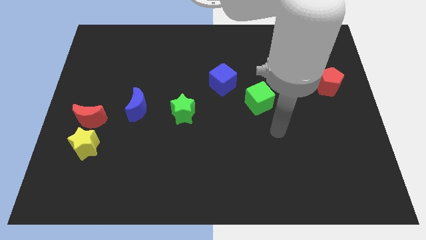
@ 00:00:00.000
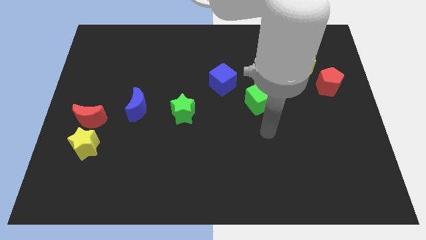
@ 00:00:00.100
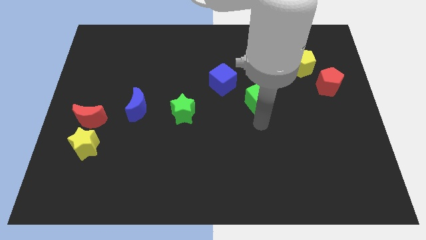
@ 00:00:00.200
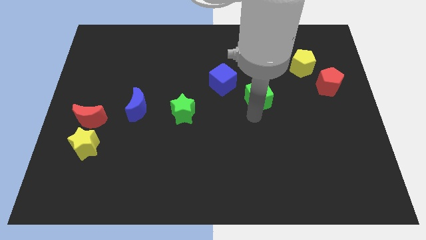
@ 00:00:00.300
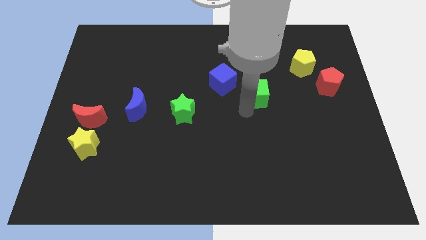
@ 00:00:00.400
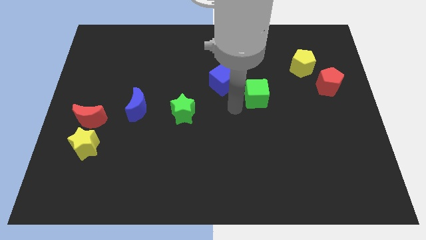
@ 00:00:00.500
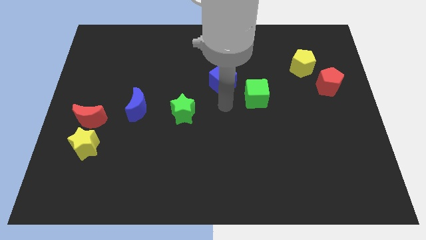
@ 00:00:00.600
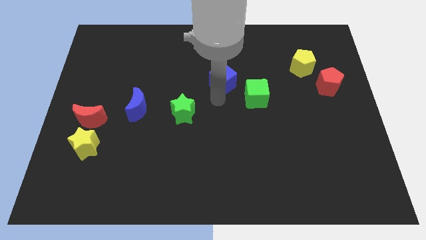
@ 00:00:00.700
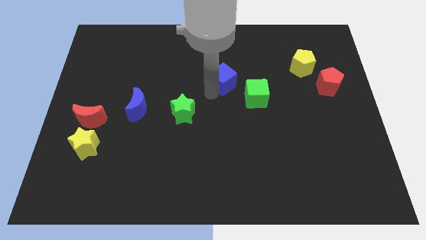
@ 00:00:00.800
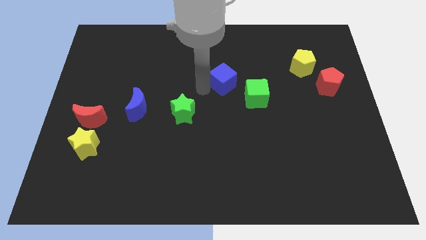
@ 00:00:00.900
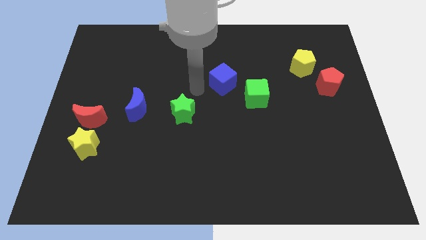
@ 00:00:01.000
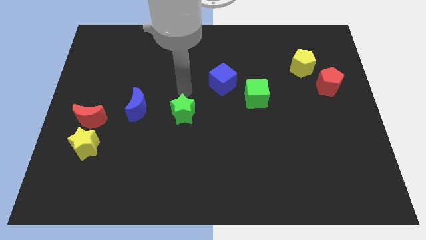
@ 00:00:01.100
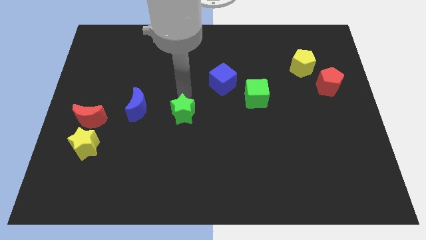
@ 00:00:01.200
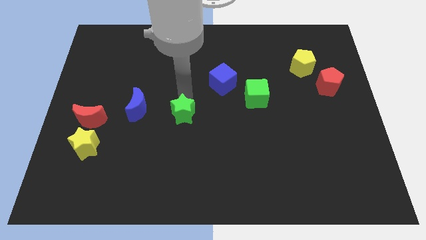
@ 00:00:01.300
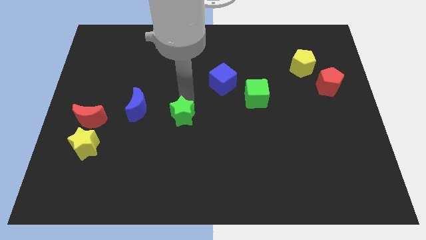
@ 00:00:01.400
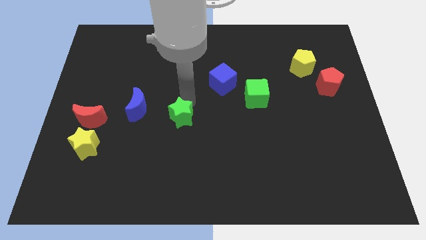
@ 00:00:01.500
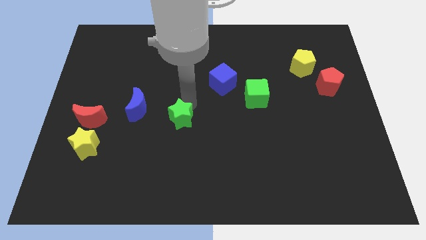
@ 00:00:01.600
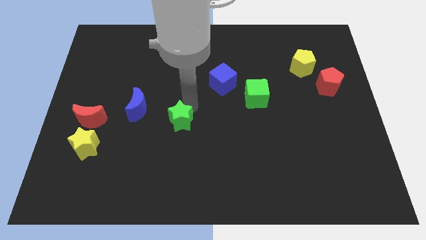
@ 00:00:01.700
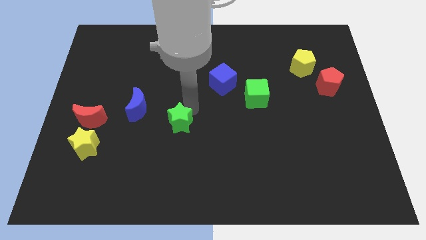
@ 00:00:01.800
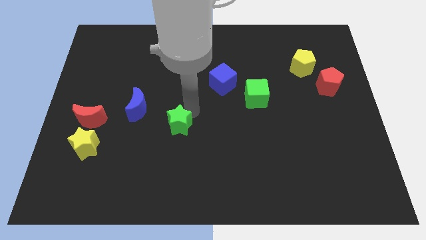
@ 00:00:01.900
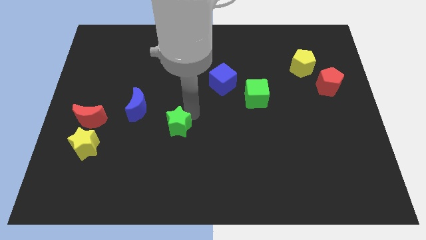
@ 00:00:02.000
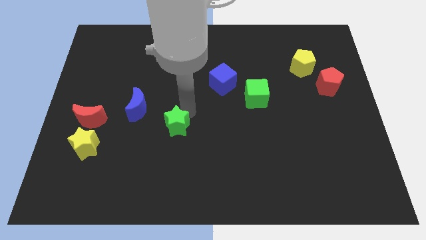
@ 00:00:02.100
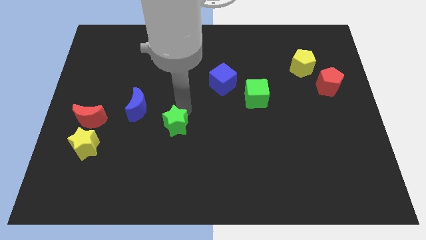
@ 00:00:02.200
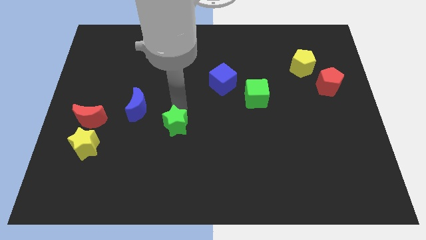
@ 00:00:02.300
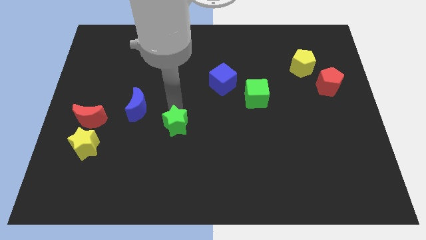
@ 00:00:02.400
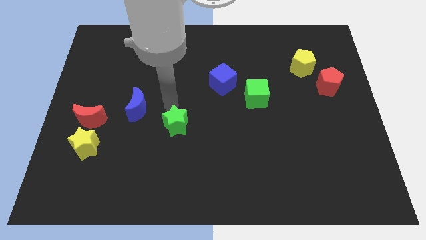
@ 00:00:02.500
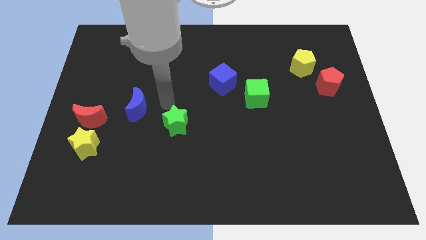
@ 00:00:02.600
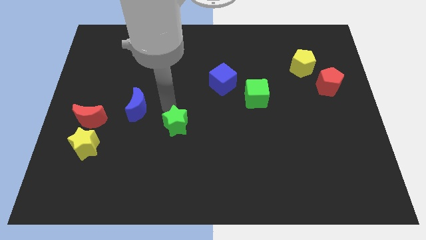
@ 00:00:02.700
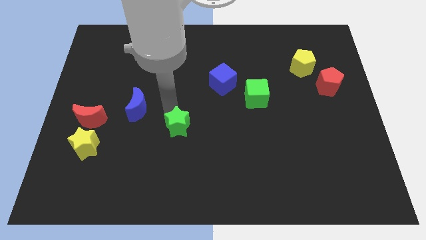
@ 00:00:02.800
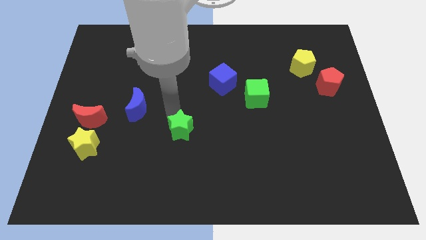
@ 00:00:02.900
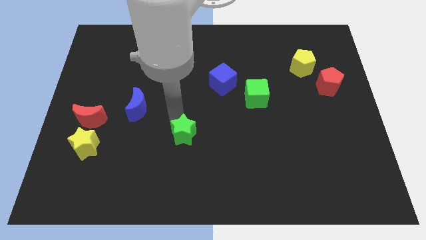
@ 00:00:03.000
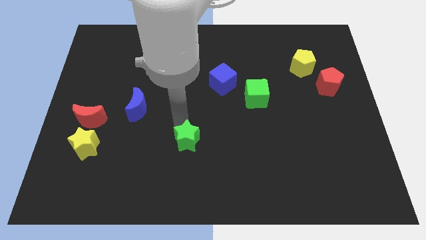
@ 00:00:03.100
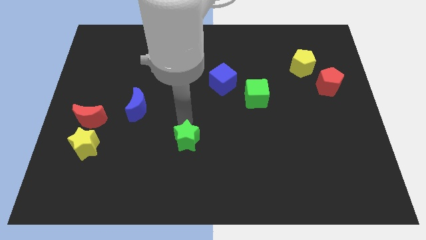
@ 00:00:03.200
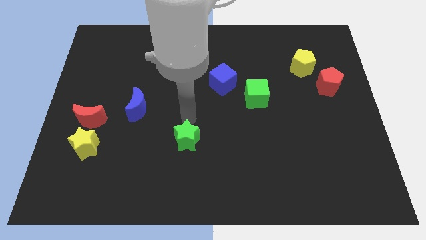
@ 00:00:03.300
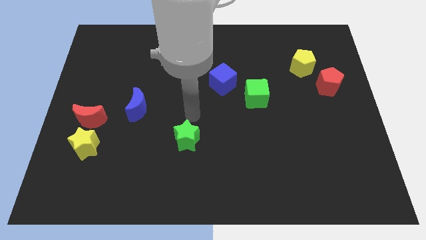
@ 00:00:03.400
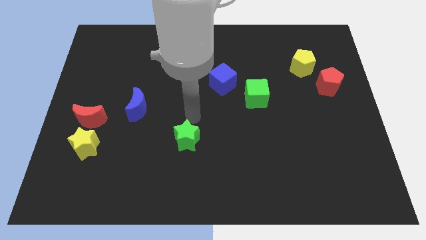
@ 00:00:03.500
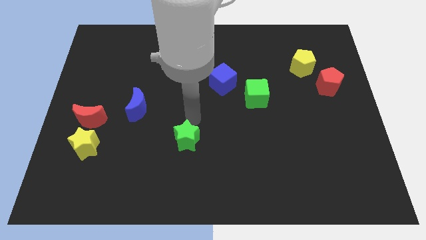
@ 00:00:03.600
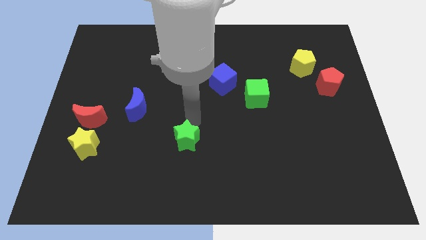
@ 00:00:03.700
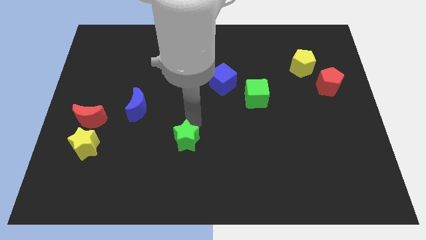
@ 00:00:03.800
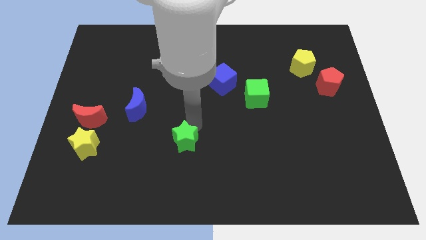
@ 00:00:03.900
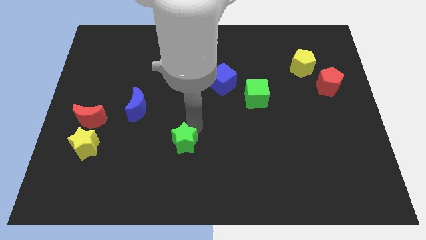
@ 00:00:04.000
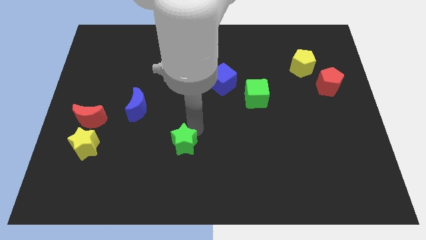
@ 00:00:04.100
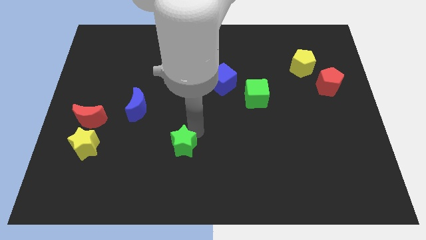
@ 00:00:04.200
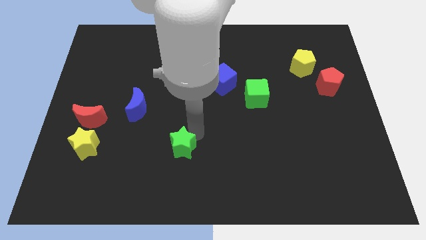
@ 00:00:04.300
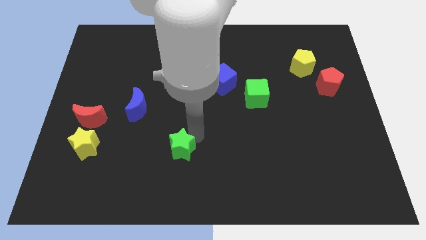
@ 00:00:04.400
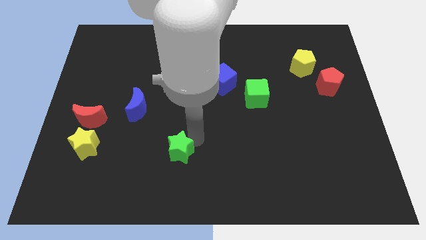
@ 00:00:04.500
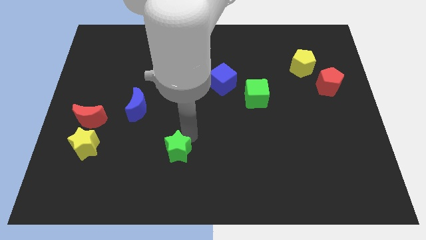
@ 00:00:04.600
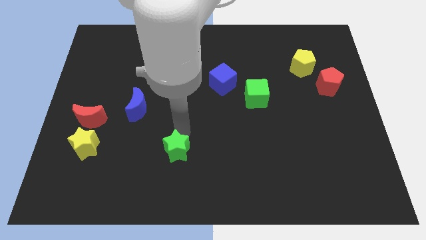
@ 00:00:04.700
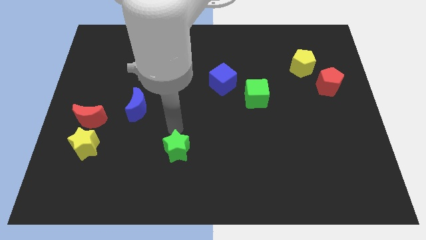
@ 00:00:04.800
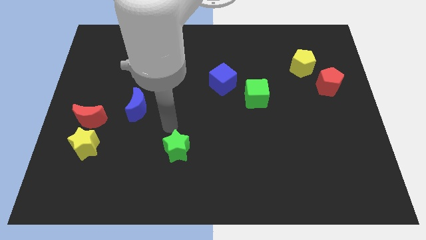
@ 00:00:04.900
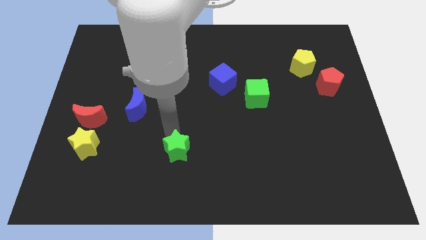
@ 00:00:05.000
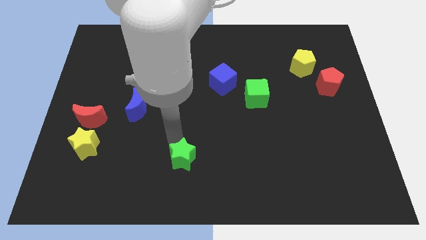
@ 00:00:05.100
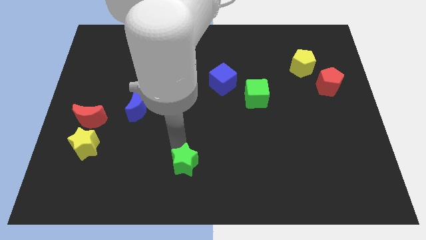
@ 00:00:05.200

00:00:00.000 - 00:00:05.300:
push the green star to the bottom

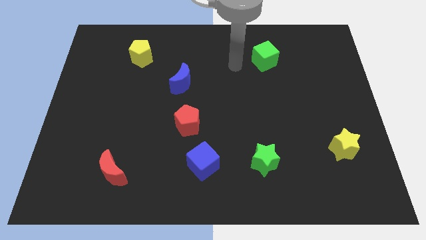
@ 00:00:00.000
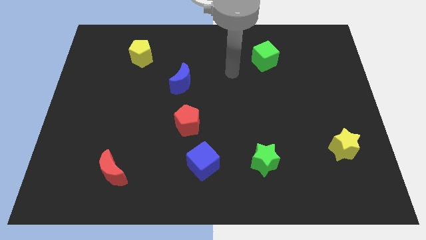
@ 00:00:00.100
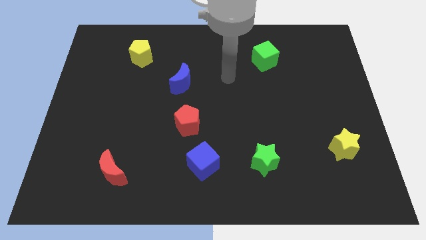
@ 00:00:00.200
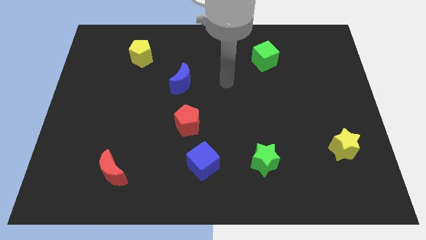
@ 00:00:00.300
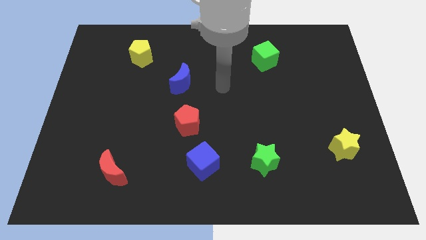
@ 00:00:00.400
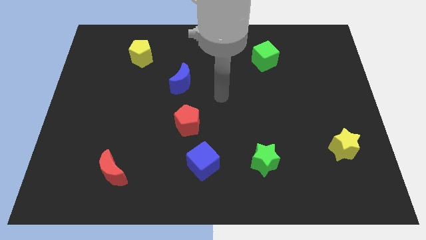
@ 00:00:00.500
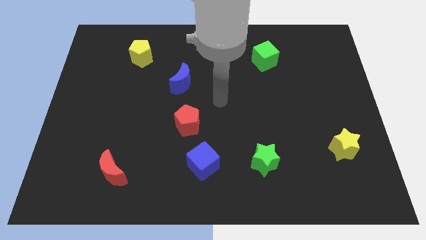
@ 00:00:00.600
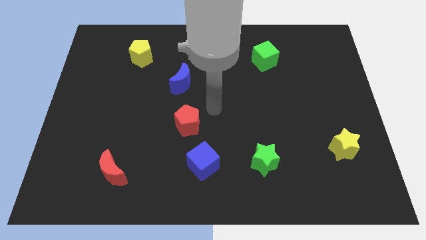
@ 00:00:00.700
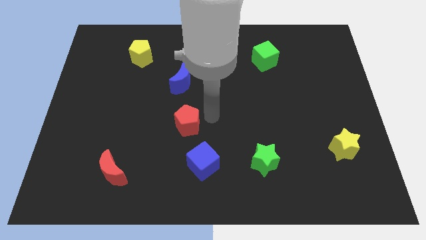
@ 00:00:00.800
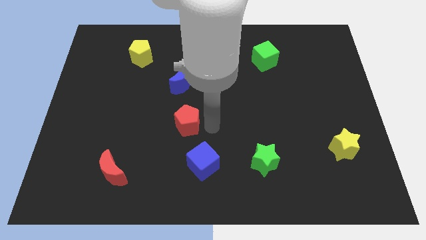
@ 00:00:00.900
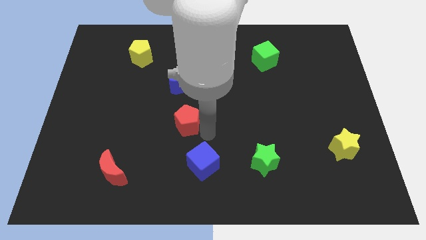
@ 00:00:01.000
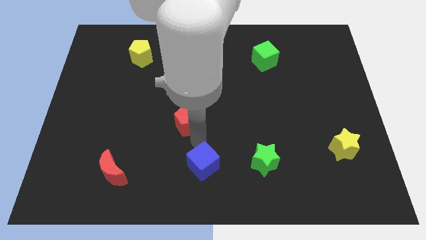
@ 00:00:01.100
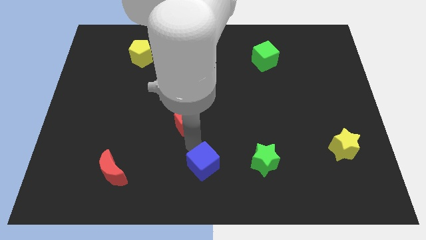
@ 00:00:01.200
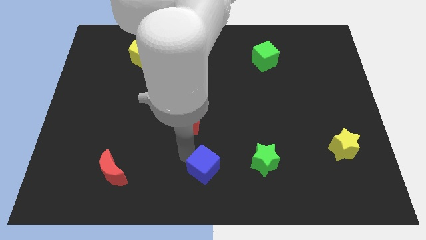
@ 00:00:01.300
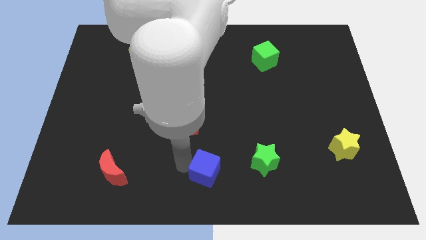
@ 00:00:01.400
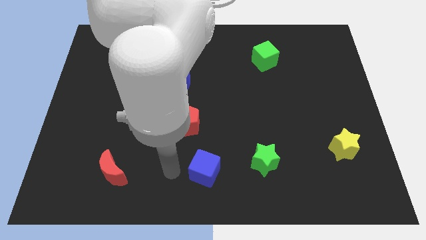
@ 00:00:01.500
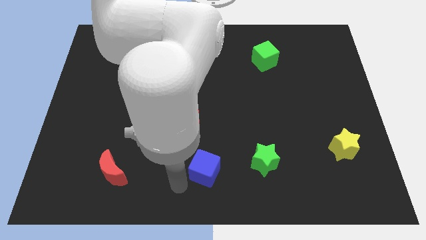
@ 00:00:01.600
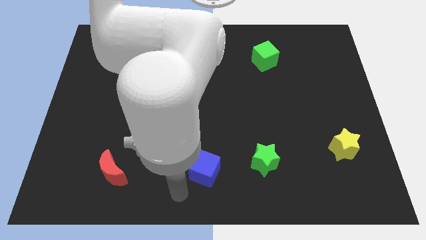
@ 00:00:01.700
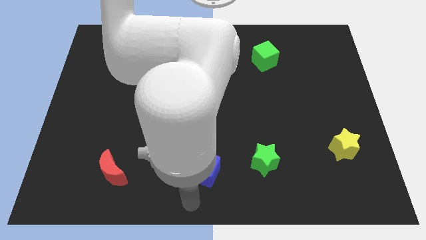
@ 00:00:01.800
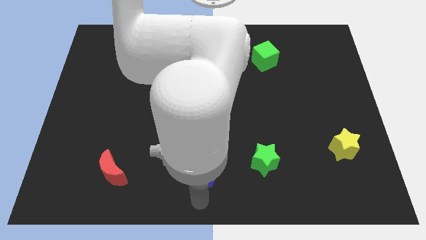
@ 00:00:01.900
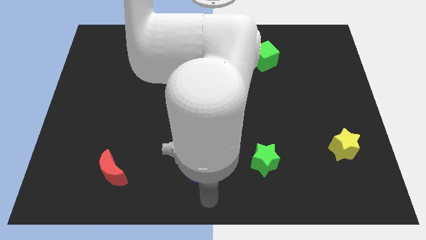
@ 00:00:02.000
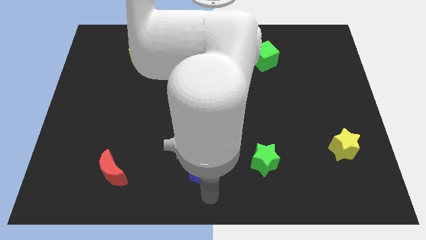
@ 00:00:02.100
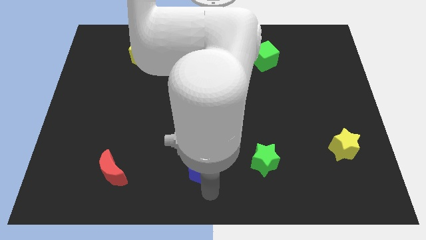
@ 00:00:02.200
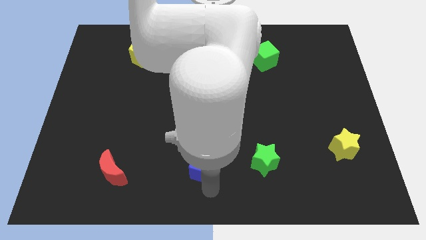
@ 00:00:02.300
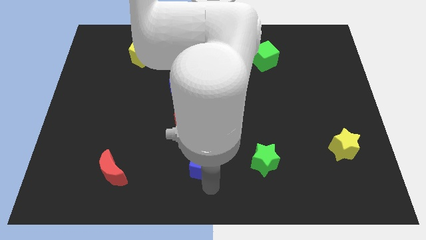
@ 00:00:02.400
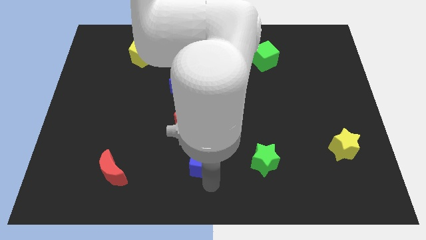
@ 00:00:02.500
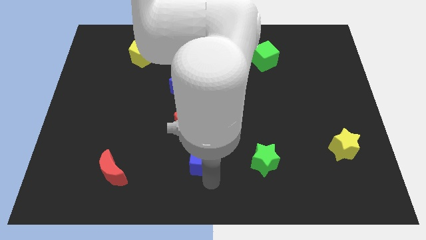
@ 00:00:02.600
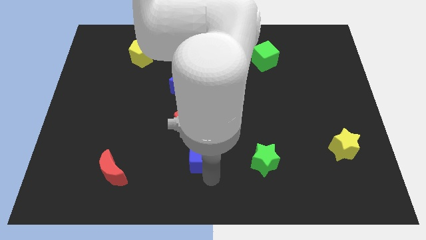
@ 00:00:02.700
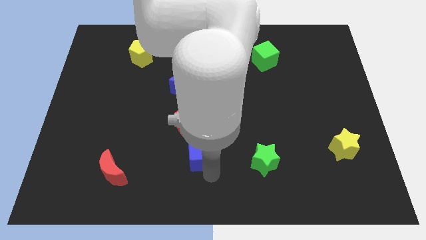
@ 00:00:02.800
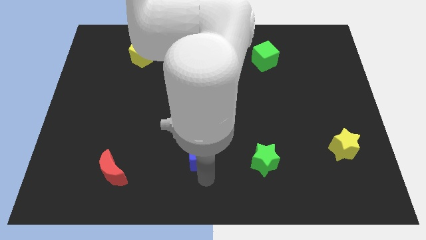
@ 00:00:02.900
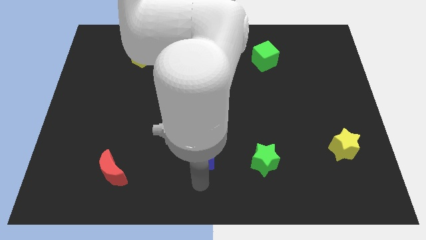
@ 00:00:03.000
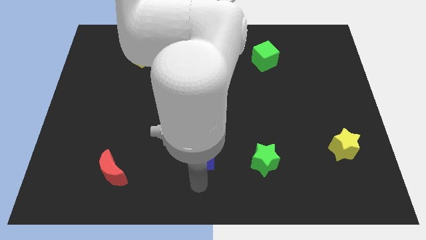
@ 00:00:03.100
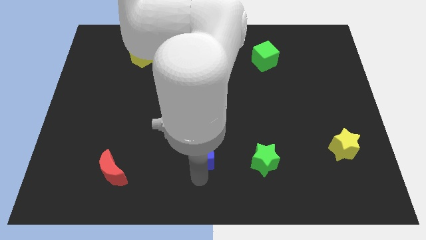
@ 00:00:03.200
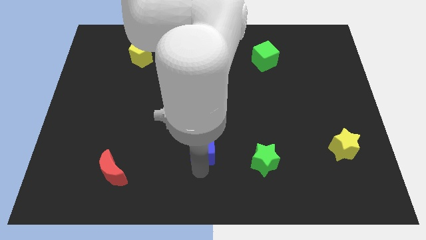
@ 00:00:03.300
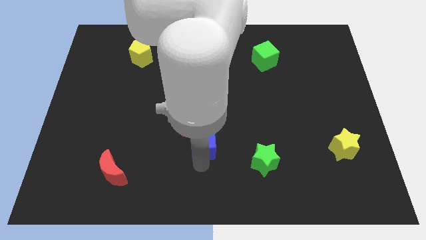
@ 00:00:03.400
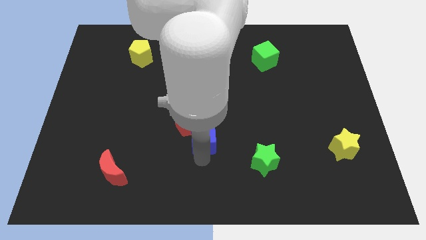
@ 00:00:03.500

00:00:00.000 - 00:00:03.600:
put the blue cube to the middle of the board
